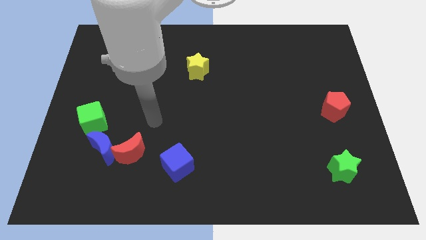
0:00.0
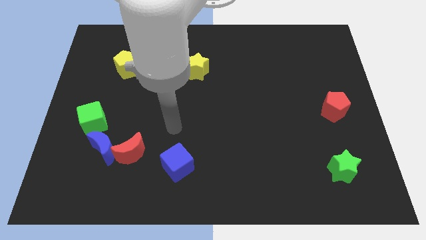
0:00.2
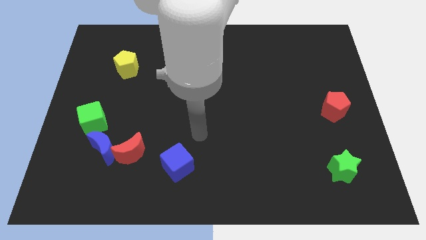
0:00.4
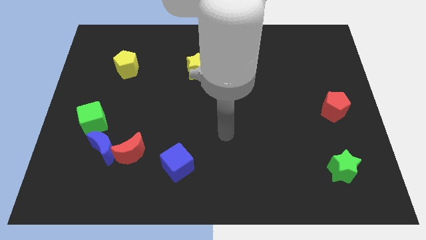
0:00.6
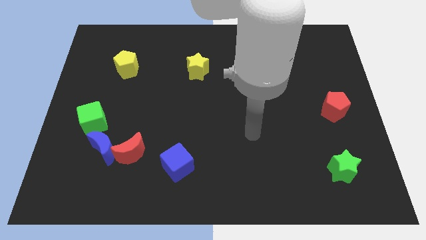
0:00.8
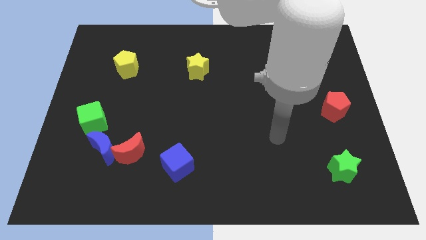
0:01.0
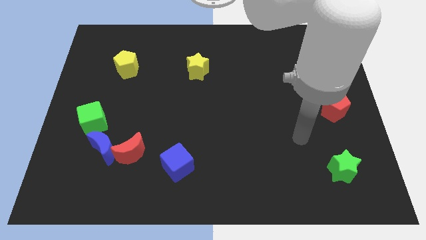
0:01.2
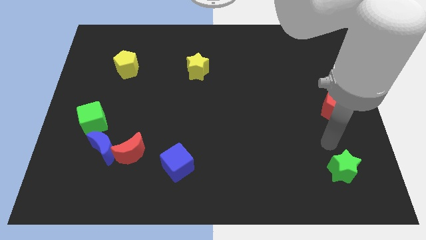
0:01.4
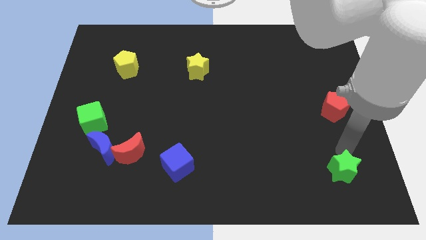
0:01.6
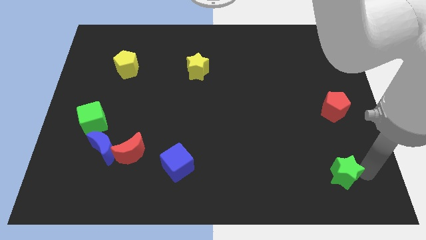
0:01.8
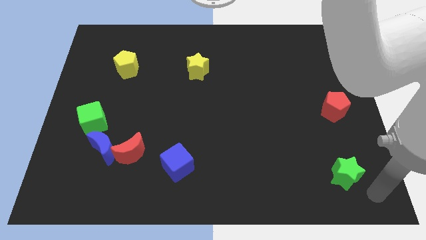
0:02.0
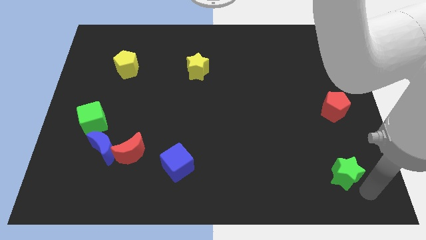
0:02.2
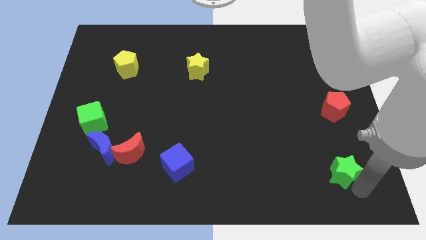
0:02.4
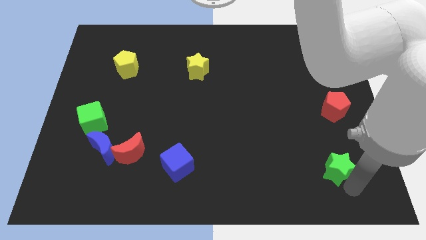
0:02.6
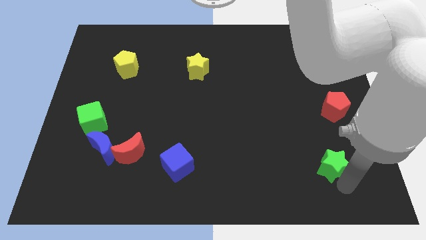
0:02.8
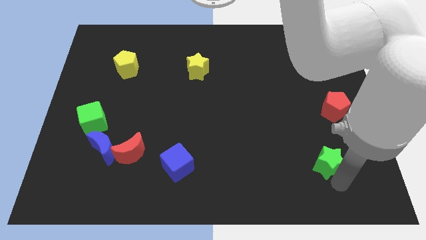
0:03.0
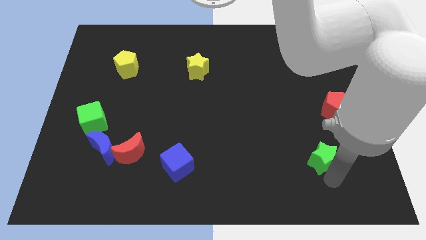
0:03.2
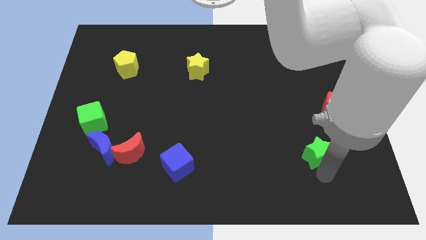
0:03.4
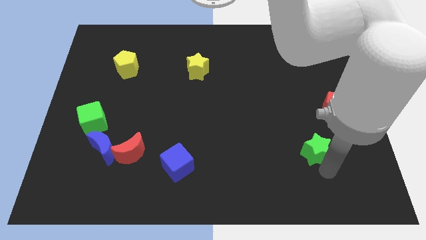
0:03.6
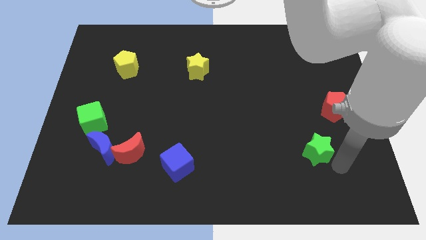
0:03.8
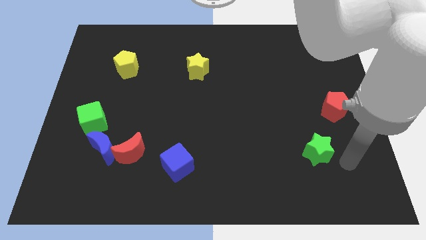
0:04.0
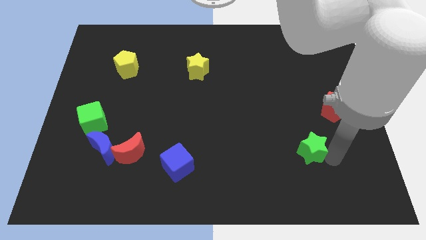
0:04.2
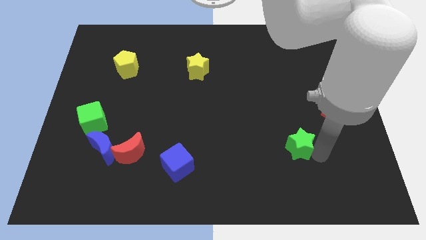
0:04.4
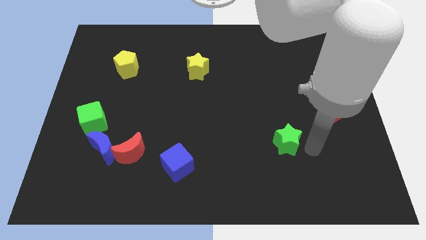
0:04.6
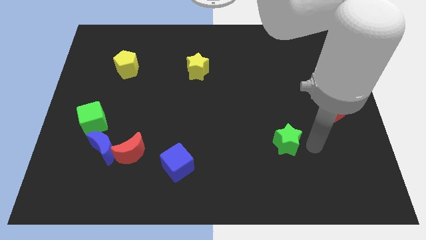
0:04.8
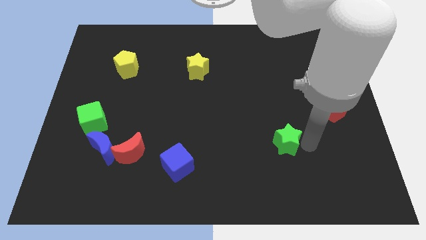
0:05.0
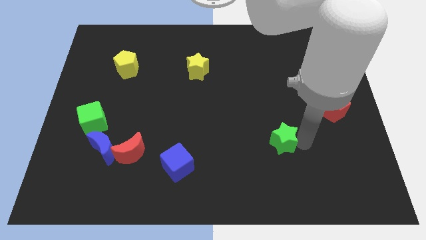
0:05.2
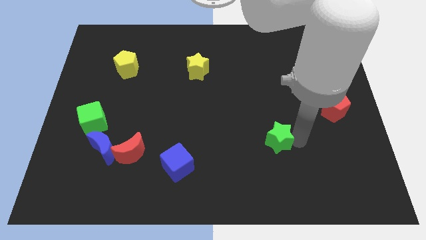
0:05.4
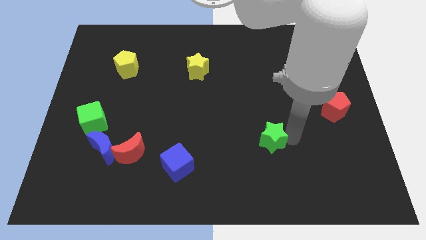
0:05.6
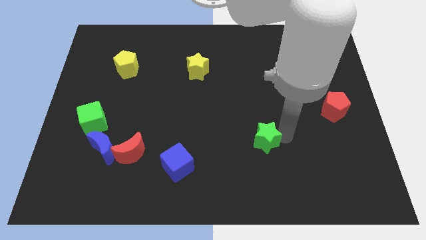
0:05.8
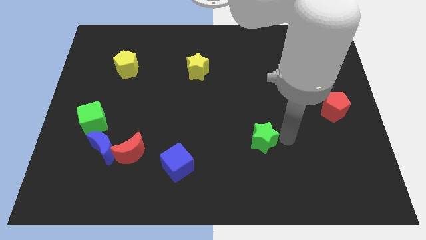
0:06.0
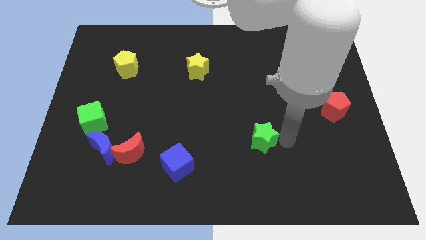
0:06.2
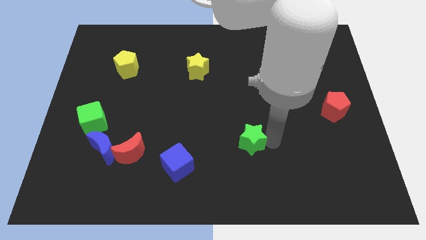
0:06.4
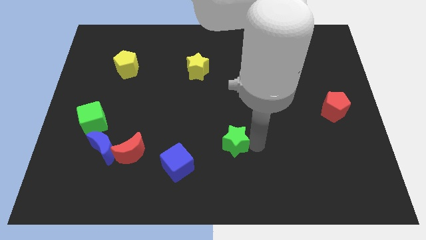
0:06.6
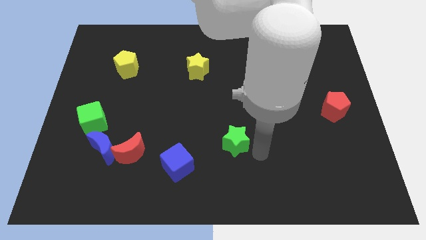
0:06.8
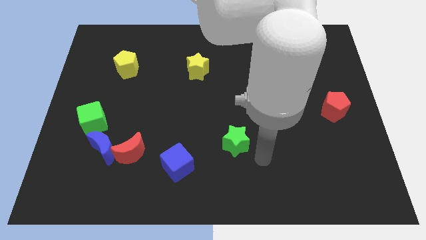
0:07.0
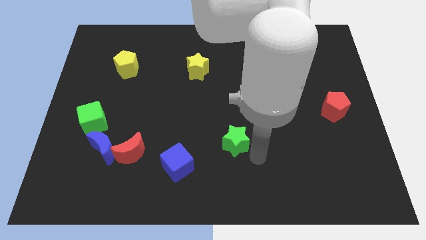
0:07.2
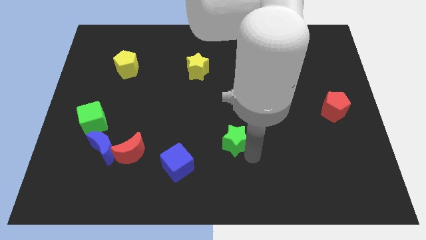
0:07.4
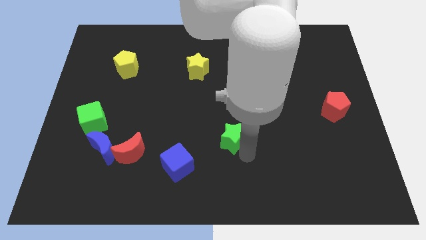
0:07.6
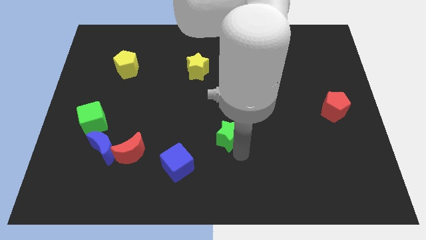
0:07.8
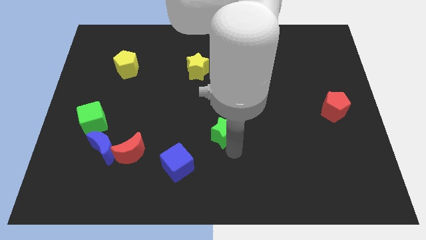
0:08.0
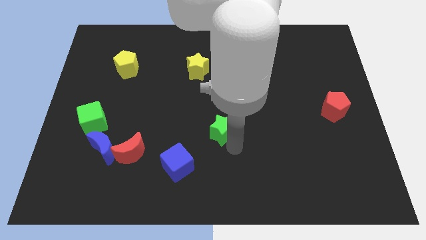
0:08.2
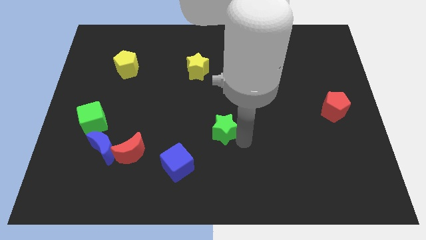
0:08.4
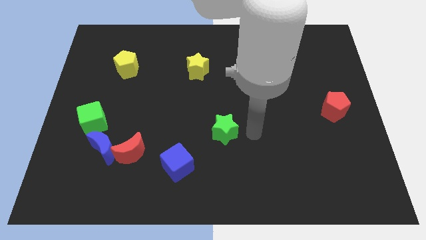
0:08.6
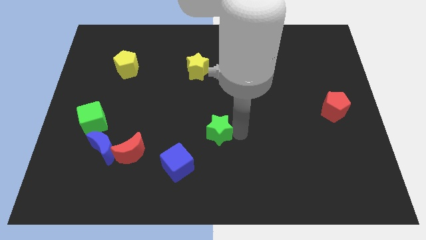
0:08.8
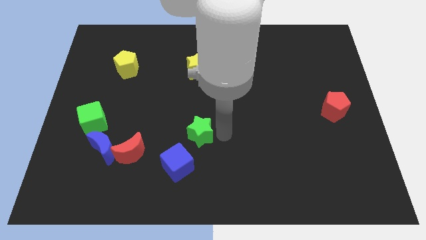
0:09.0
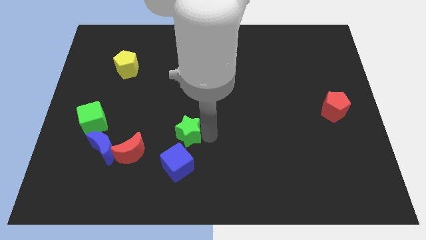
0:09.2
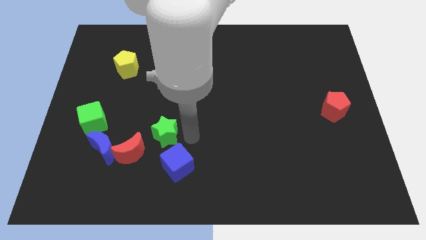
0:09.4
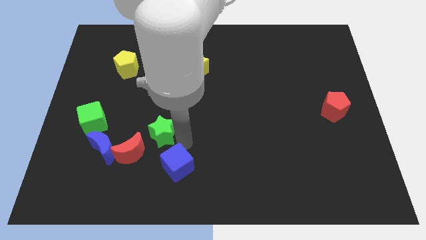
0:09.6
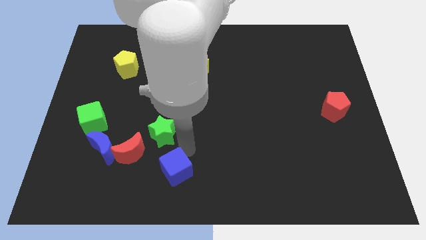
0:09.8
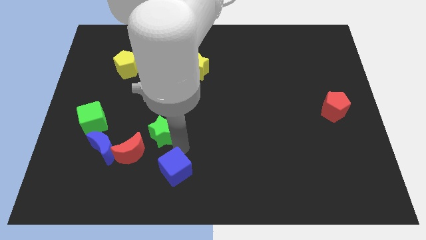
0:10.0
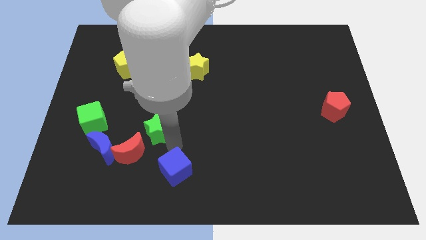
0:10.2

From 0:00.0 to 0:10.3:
put the green star right of the green cube

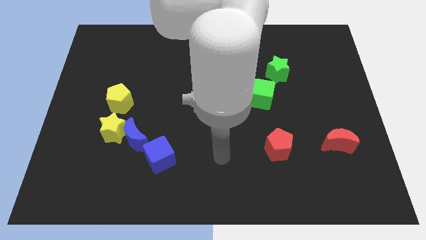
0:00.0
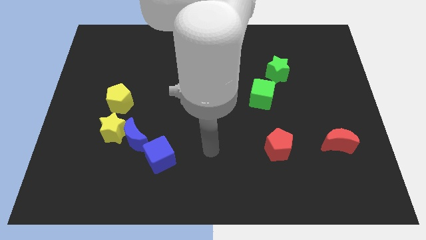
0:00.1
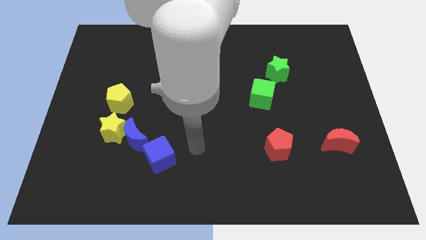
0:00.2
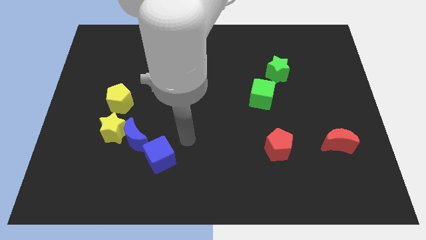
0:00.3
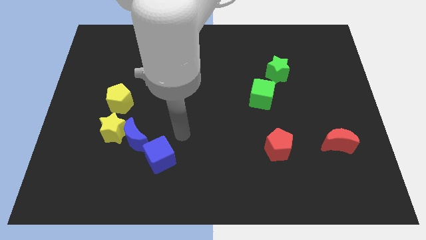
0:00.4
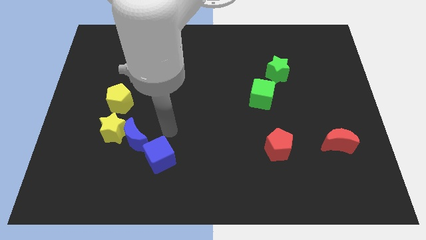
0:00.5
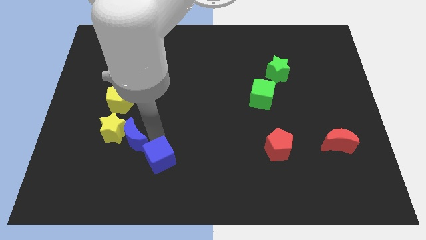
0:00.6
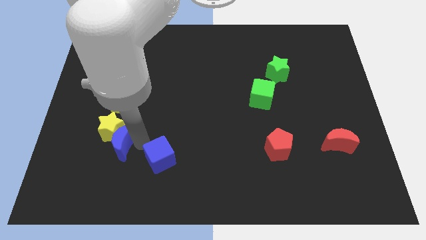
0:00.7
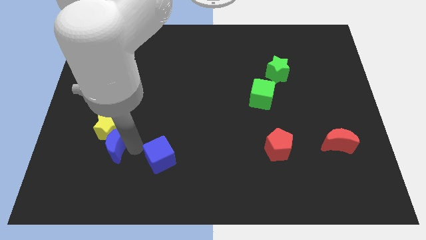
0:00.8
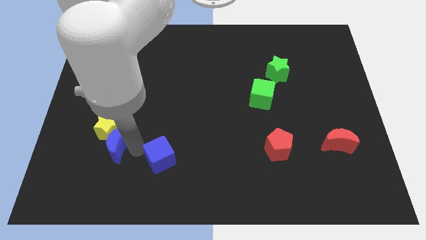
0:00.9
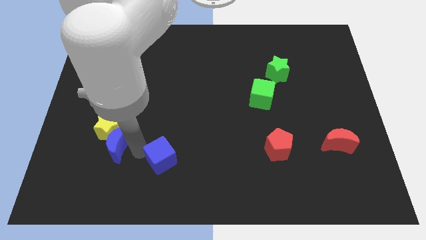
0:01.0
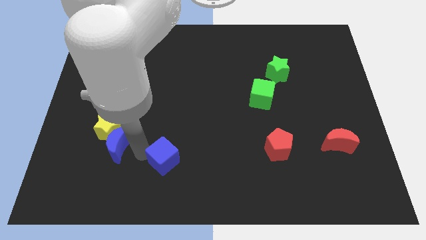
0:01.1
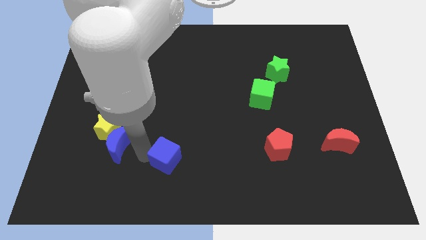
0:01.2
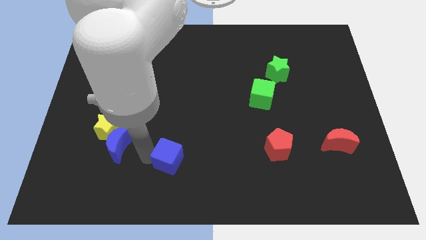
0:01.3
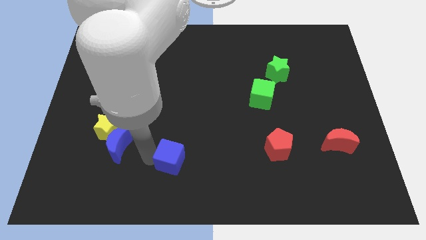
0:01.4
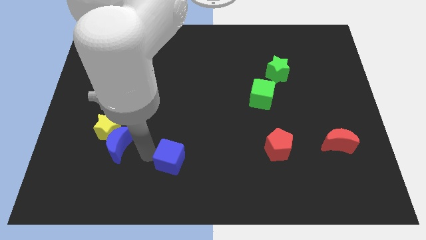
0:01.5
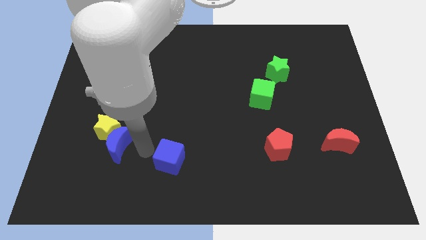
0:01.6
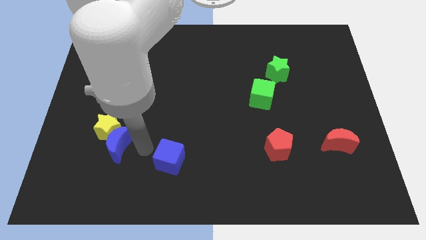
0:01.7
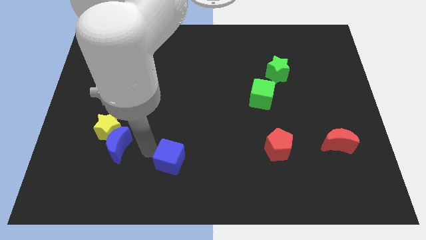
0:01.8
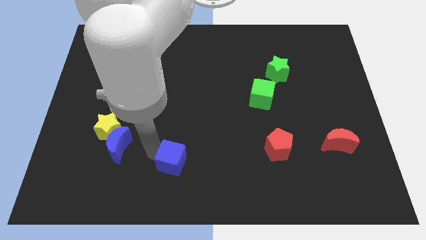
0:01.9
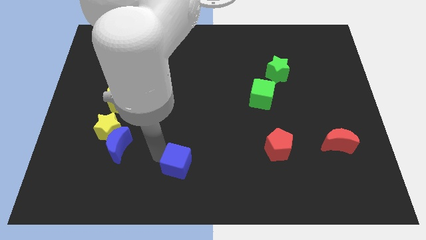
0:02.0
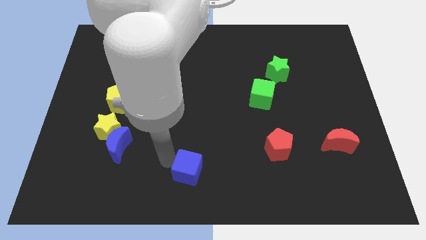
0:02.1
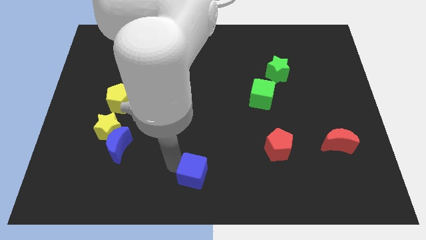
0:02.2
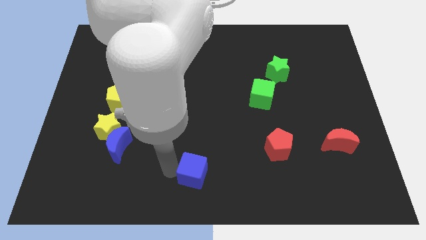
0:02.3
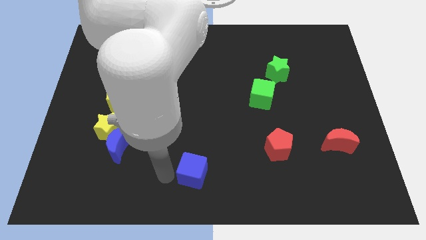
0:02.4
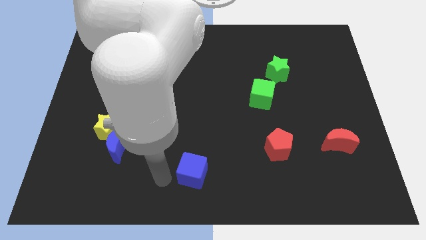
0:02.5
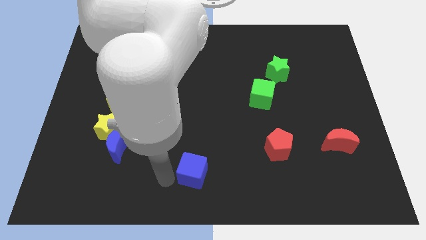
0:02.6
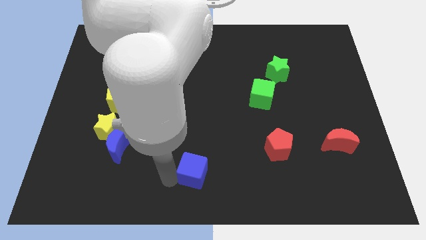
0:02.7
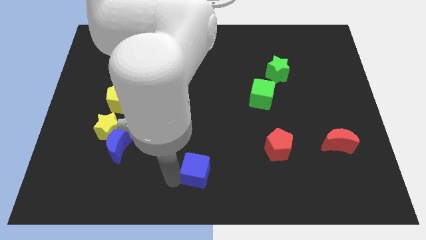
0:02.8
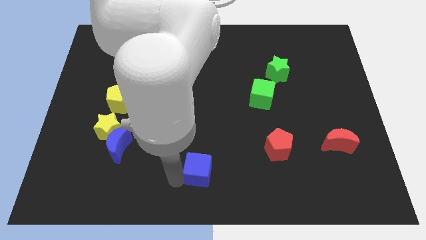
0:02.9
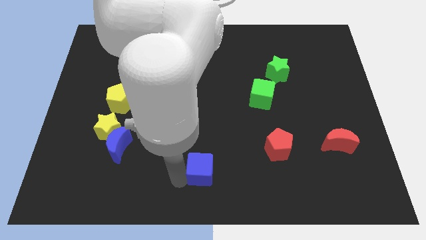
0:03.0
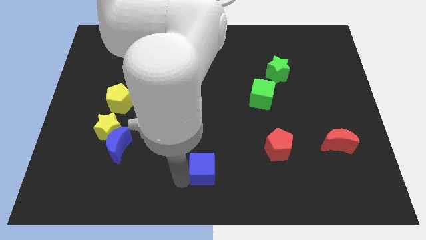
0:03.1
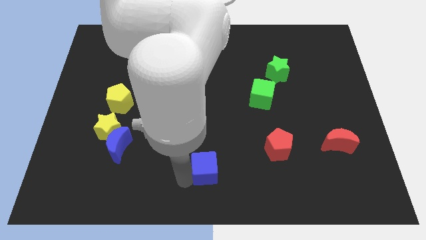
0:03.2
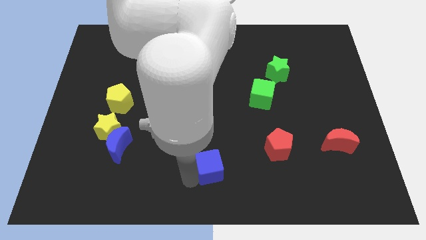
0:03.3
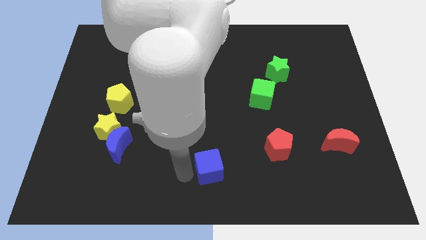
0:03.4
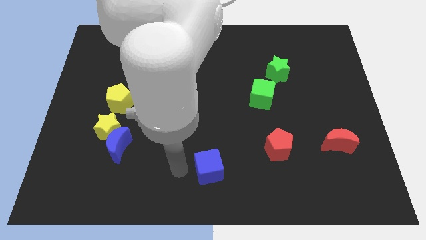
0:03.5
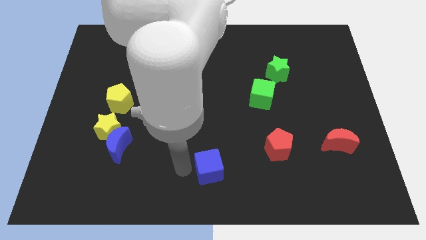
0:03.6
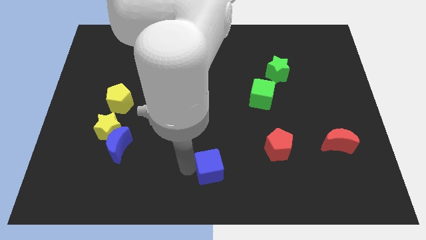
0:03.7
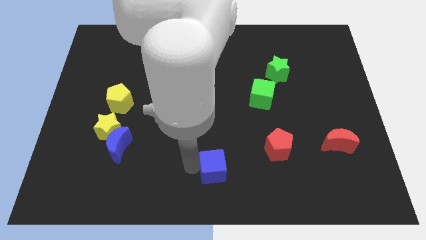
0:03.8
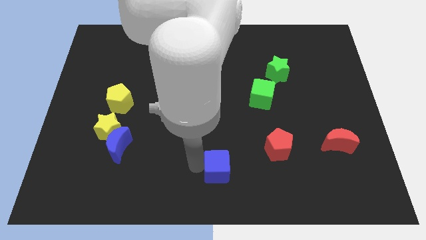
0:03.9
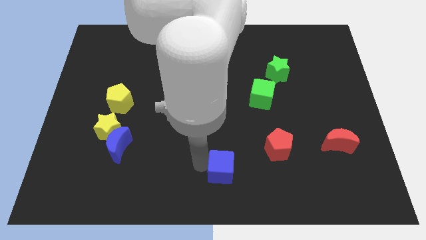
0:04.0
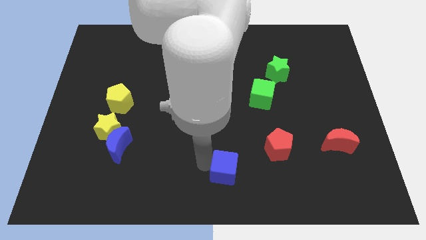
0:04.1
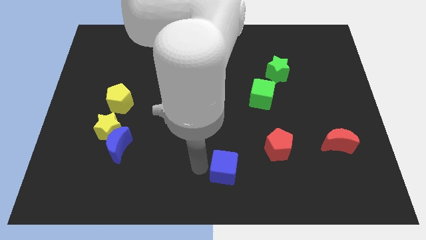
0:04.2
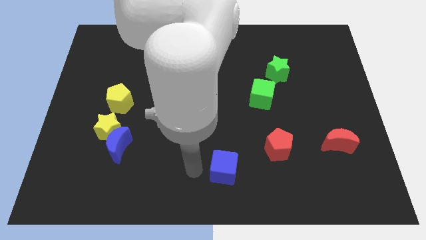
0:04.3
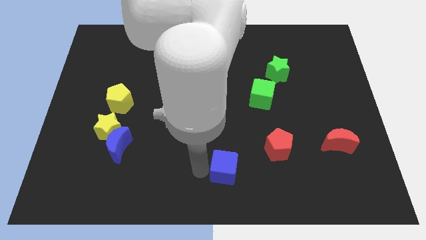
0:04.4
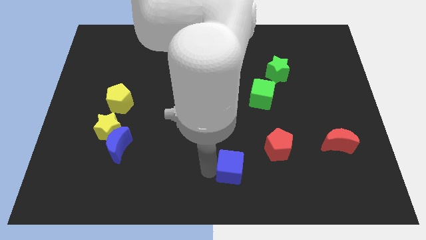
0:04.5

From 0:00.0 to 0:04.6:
slide the blue cube to the bottom left of the red pentagon
